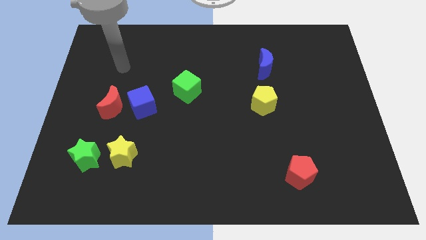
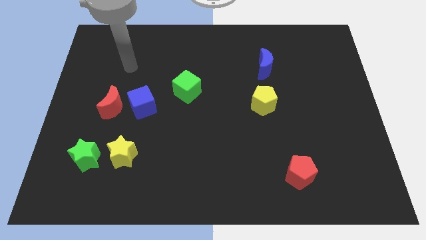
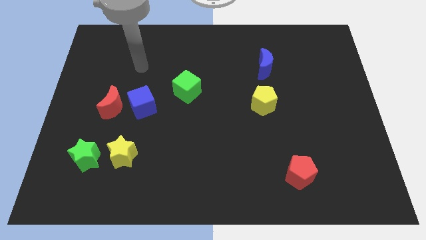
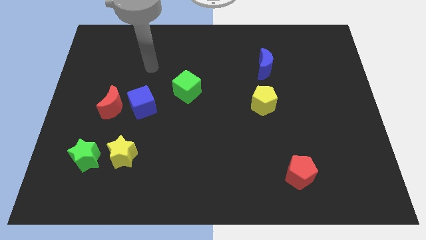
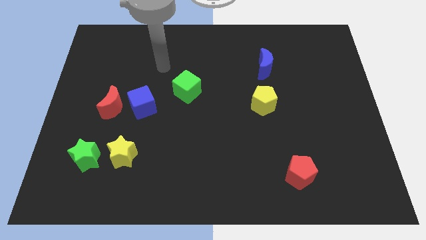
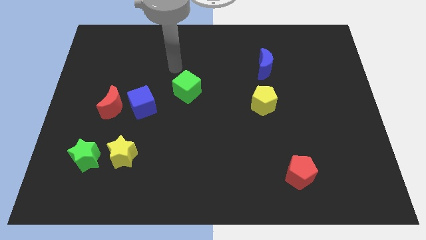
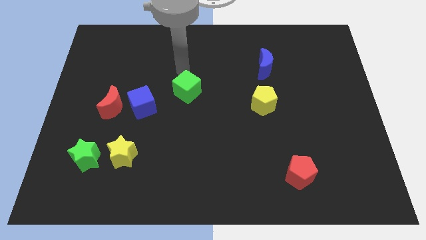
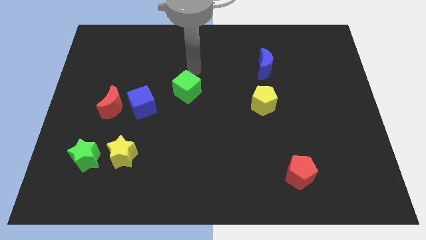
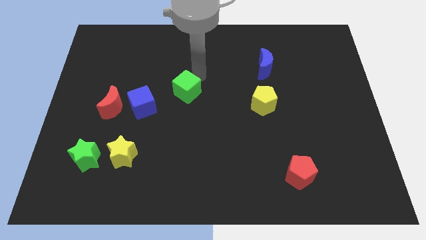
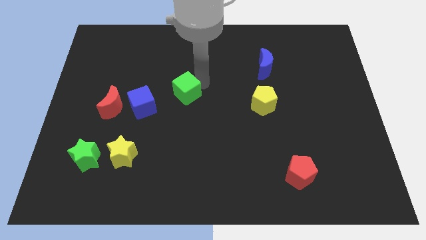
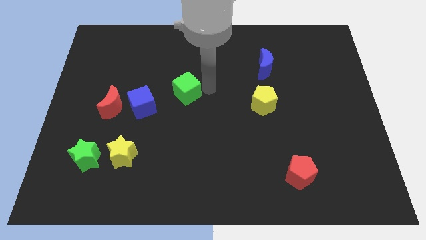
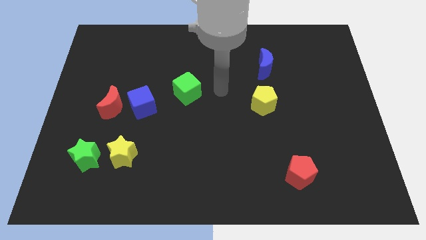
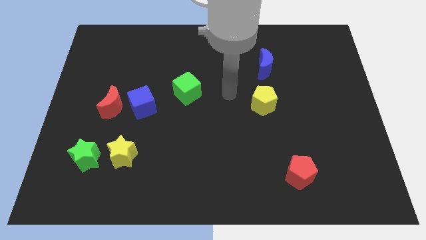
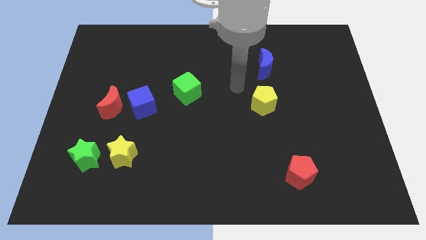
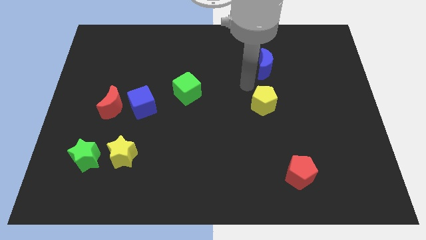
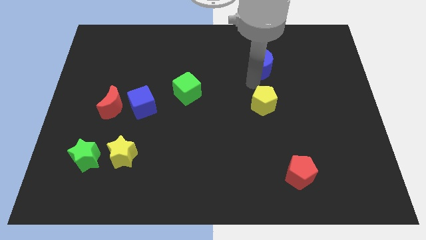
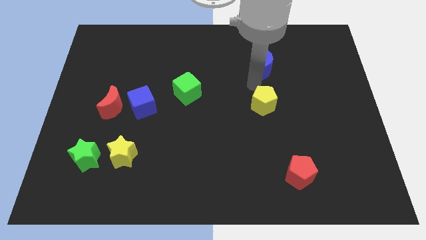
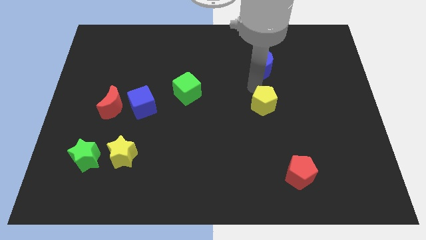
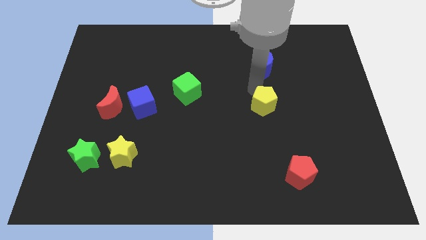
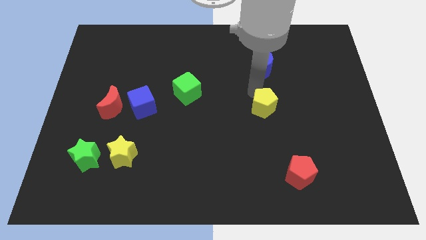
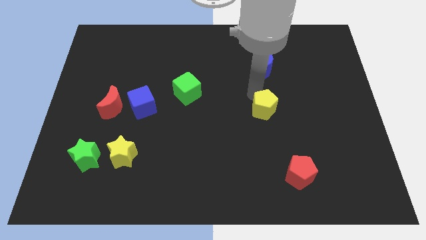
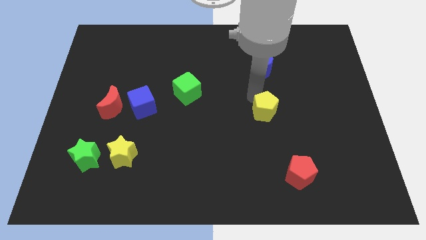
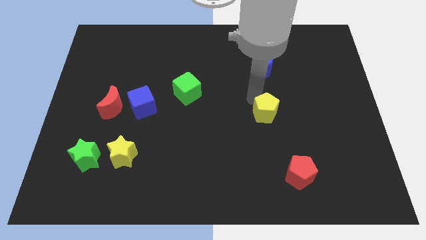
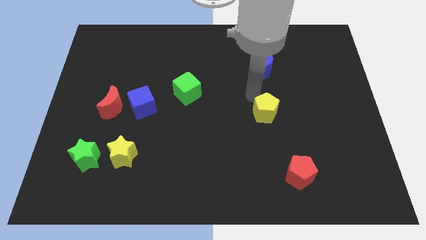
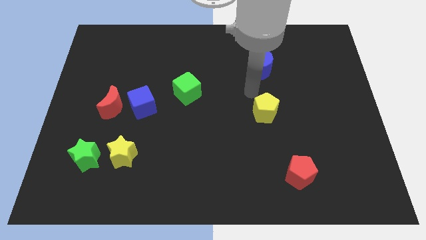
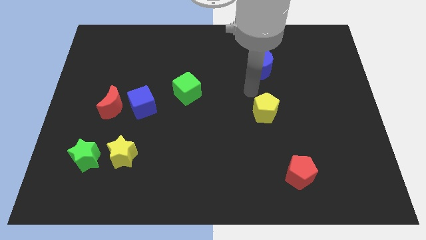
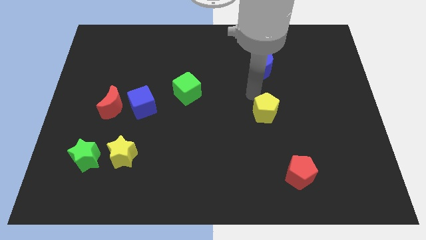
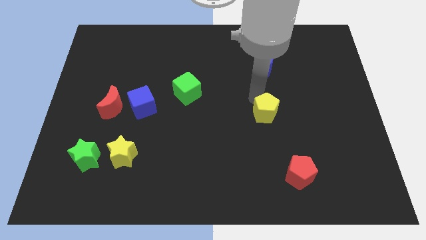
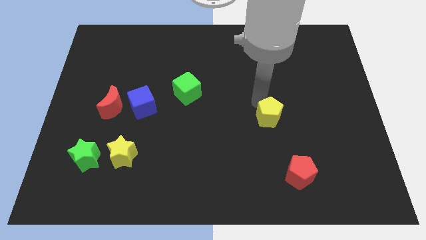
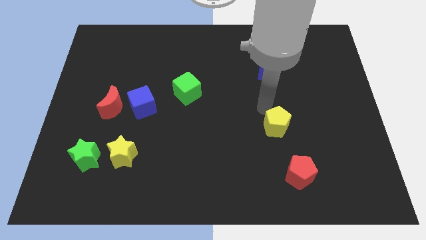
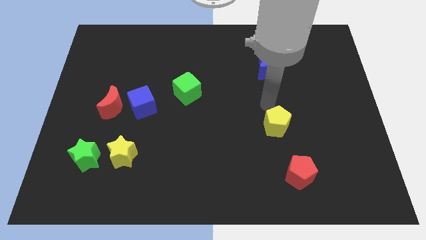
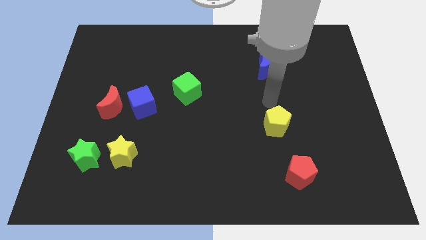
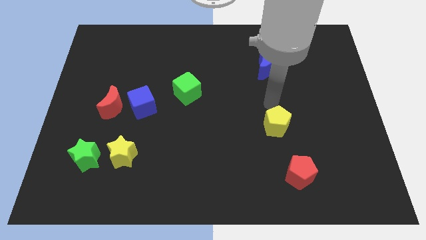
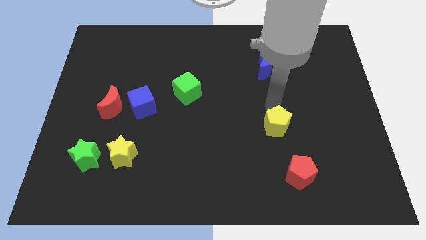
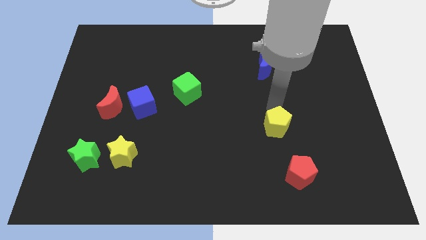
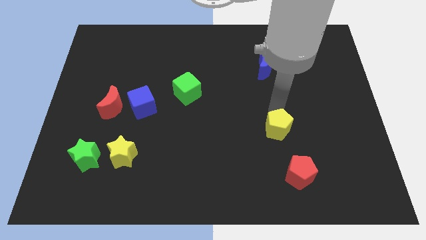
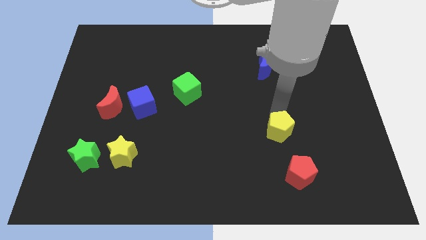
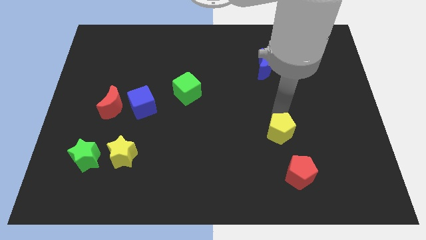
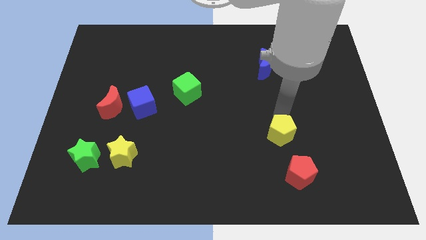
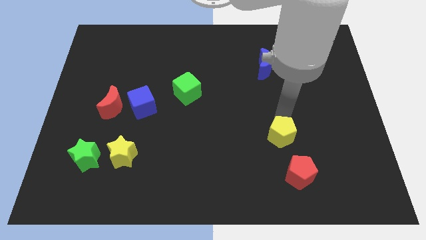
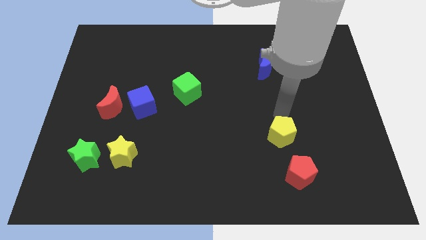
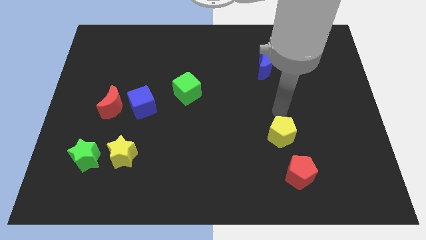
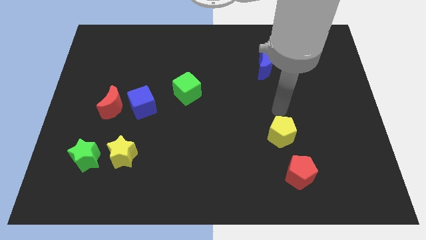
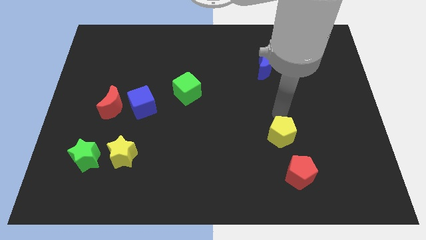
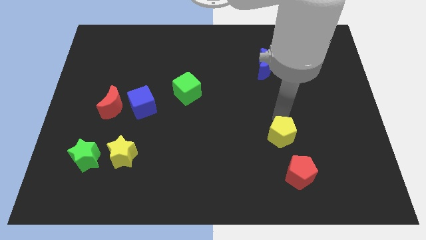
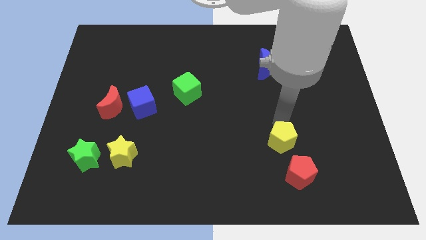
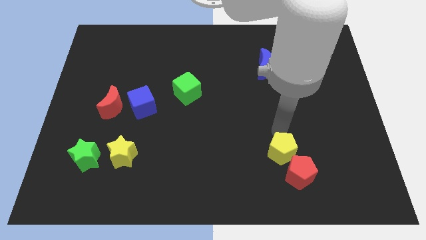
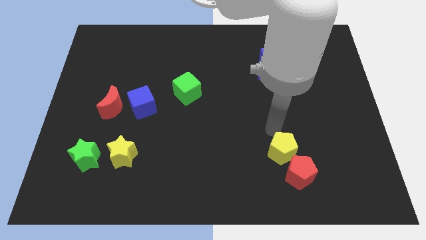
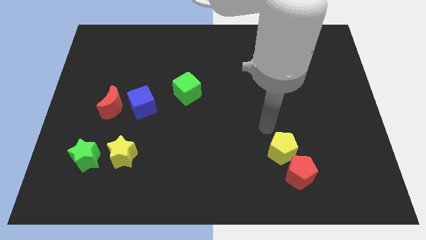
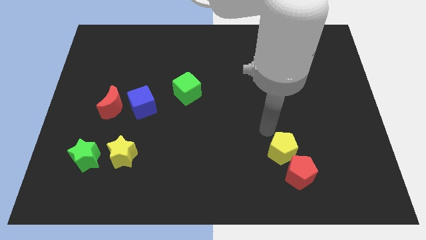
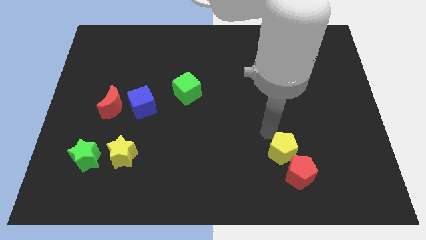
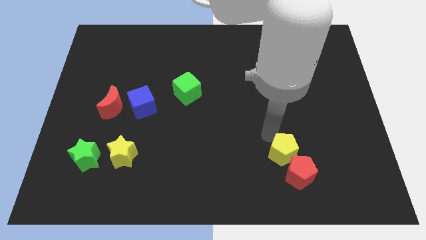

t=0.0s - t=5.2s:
slide the yellow pentagon to the red pentagon

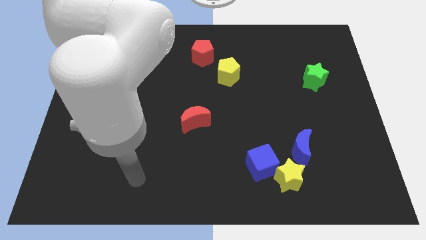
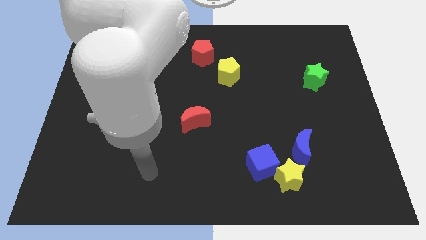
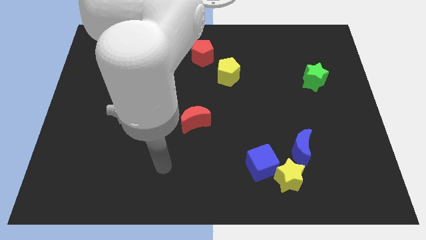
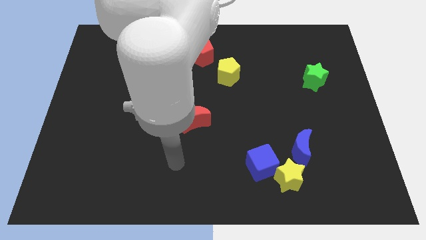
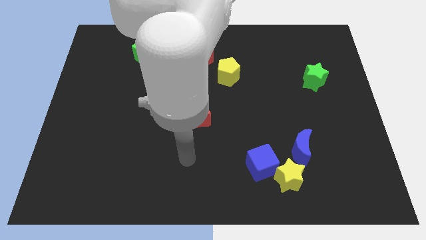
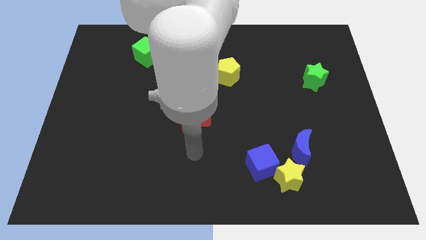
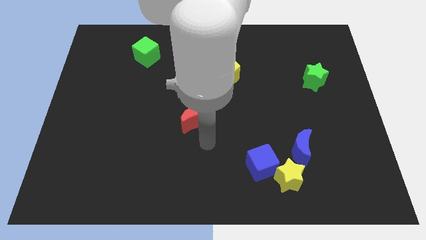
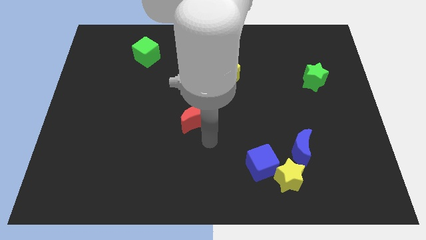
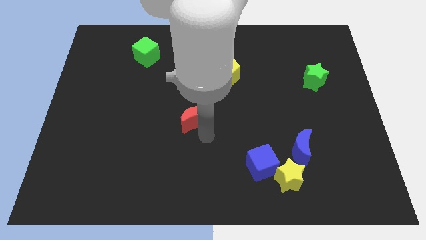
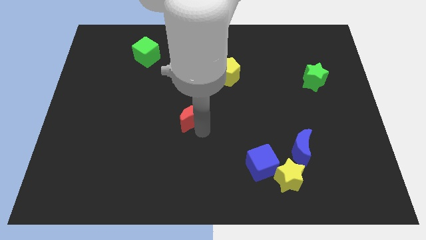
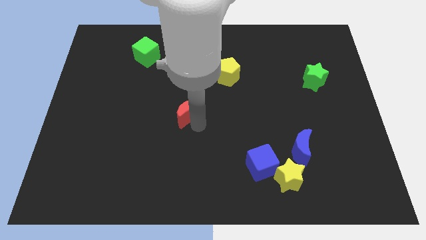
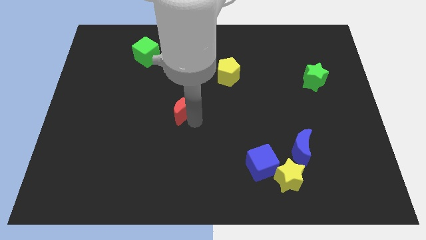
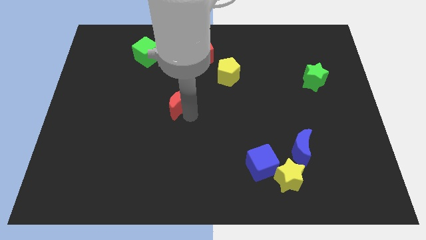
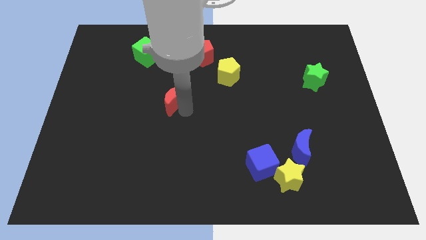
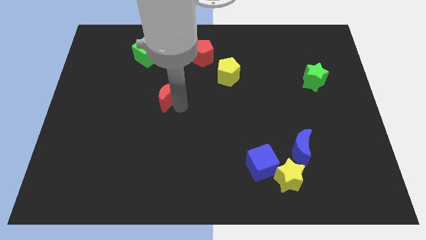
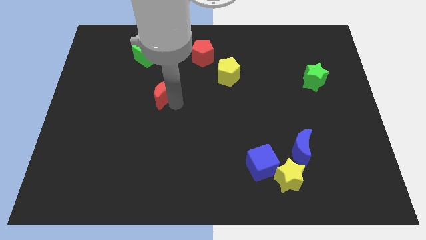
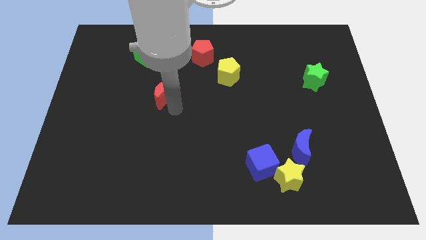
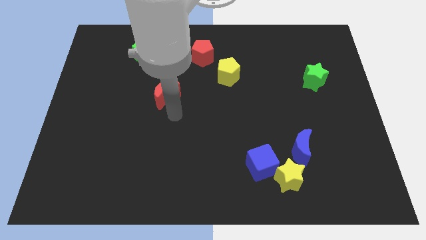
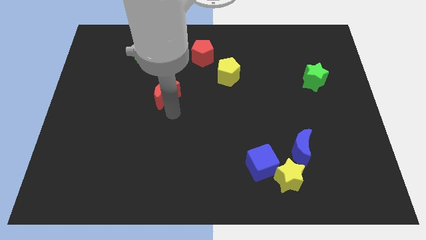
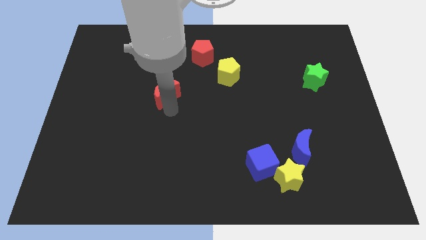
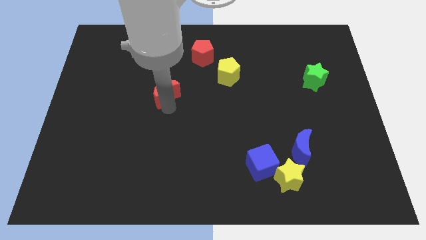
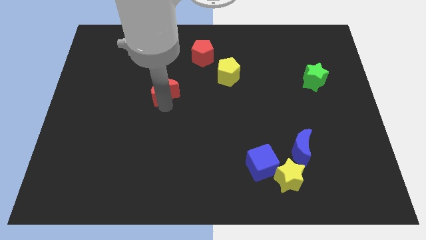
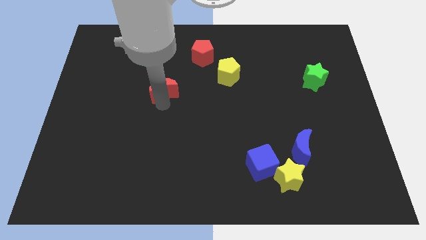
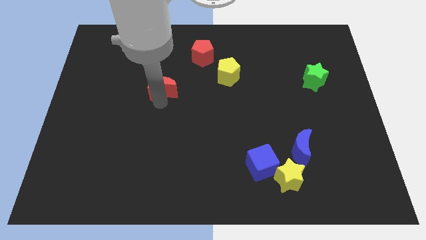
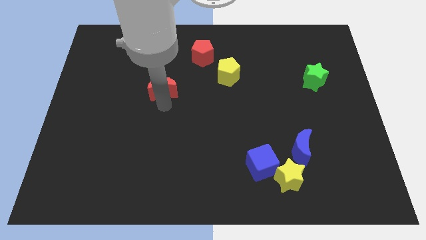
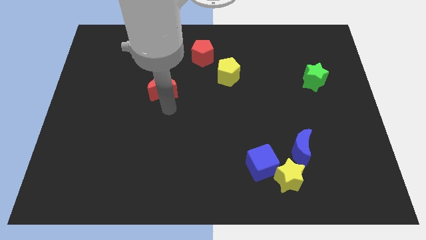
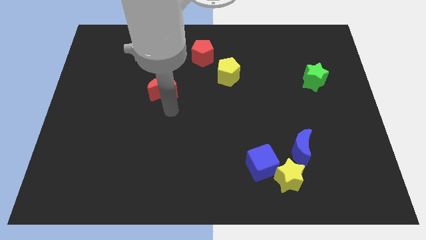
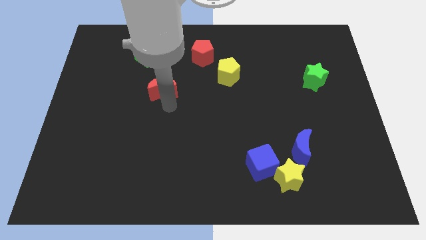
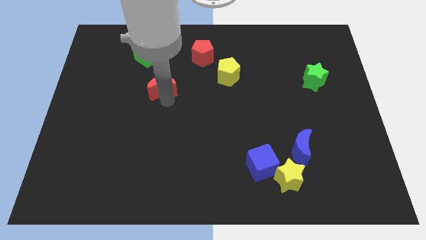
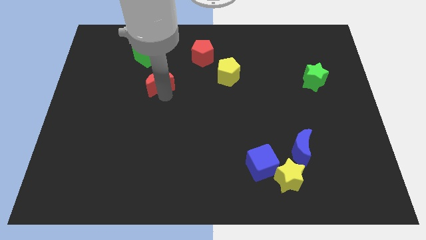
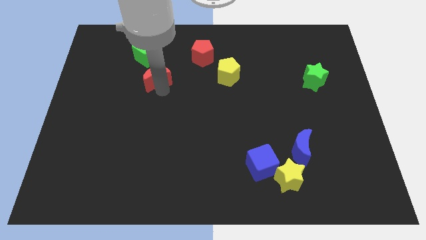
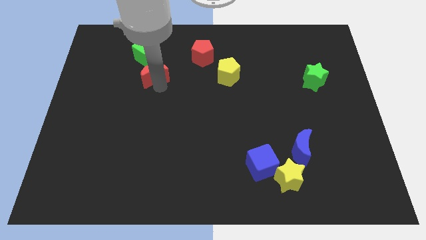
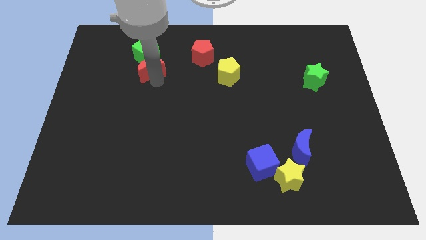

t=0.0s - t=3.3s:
put the red moon next to the green cube
